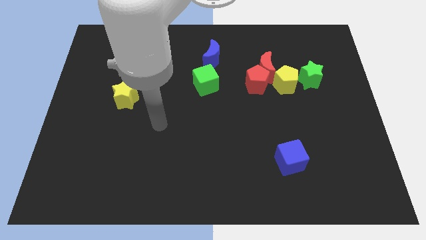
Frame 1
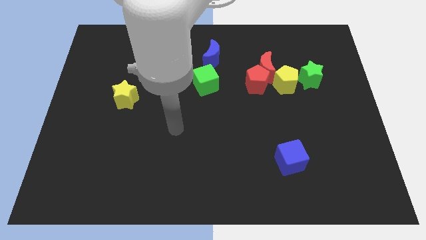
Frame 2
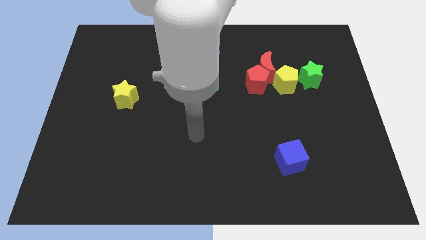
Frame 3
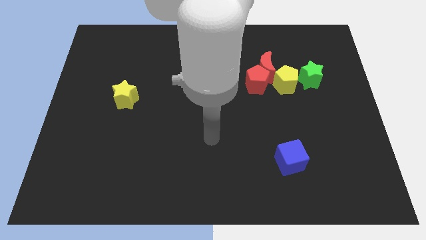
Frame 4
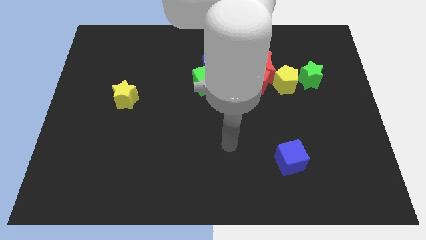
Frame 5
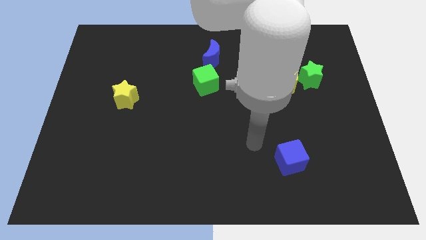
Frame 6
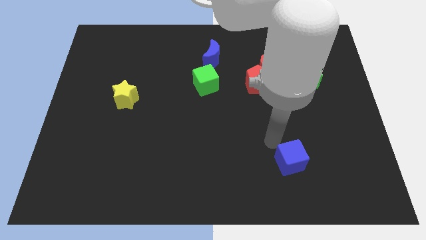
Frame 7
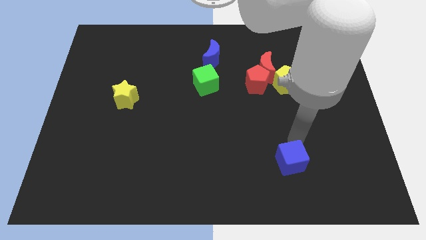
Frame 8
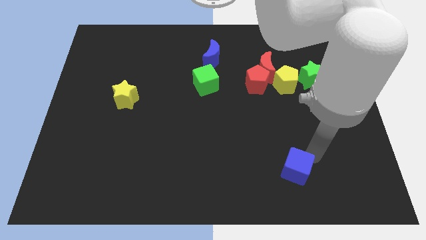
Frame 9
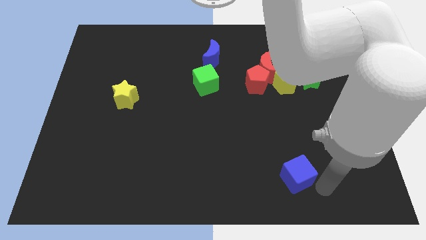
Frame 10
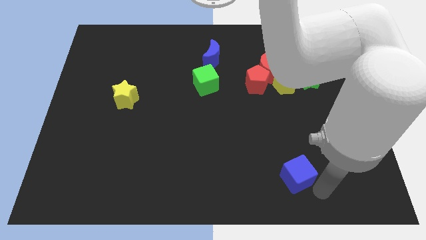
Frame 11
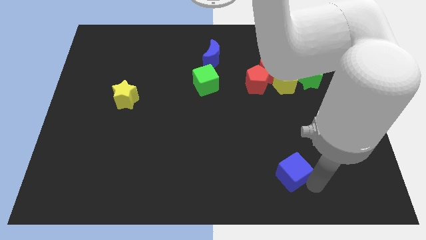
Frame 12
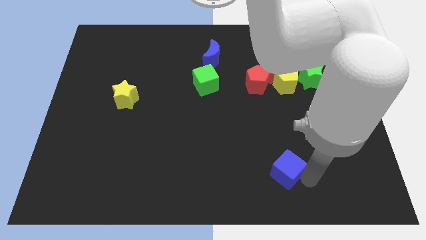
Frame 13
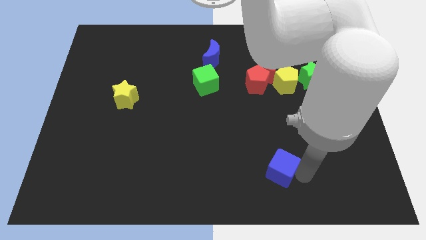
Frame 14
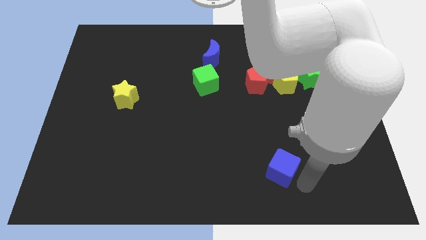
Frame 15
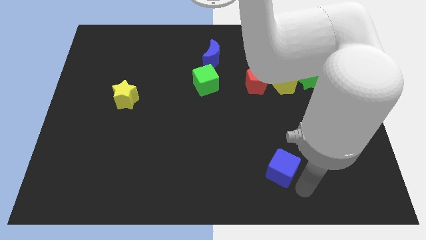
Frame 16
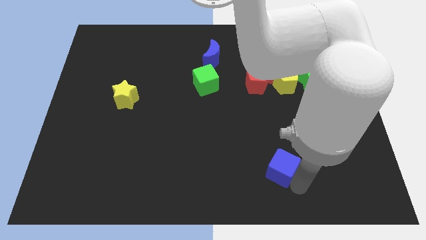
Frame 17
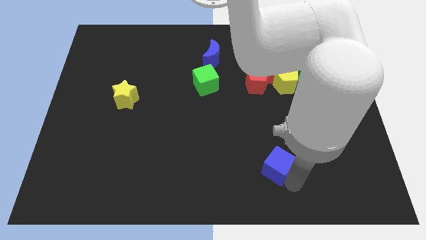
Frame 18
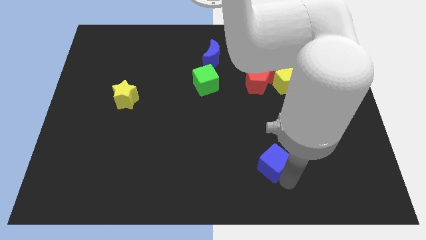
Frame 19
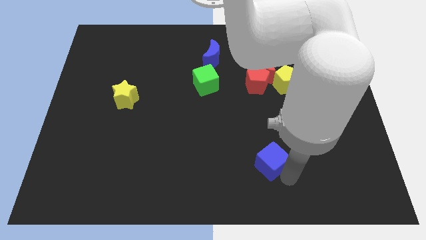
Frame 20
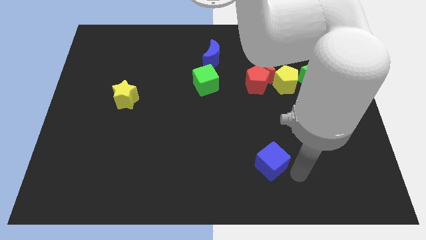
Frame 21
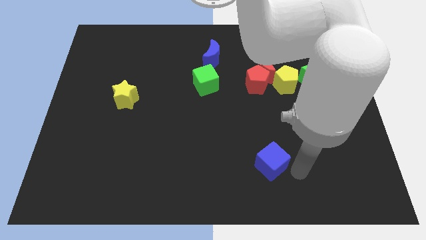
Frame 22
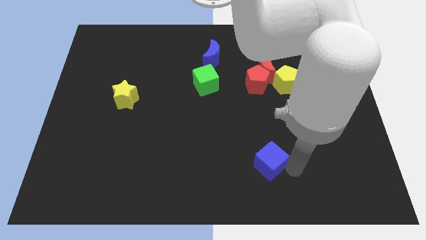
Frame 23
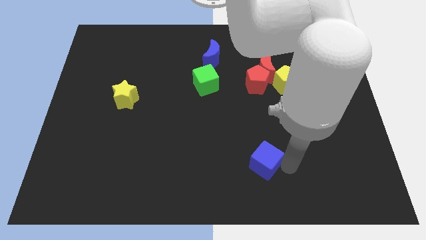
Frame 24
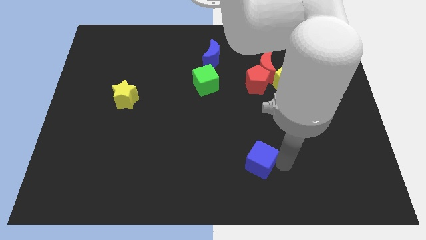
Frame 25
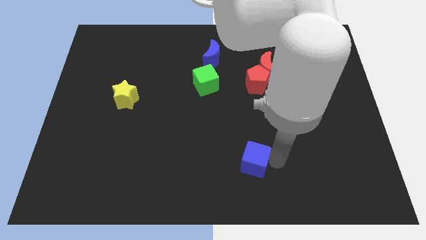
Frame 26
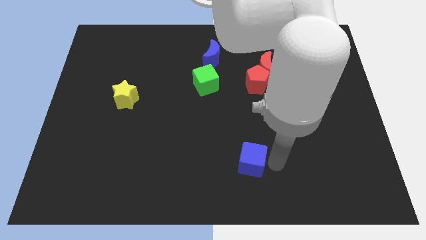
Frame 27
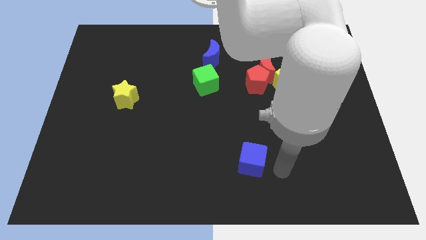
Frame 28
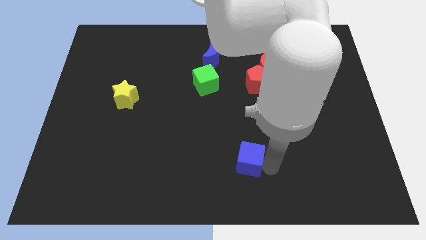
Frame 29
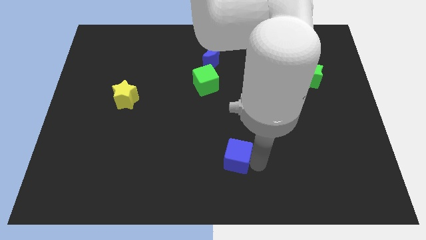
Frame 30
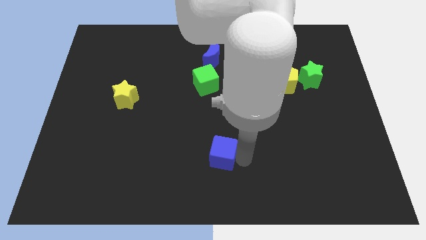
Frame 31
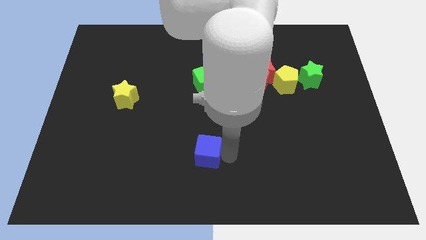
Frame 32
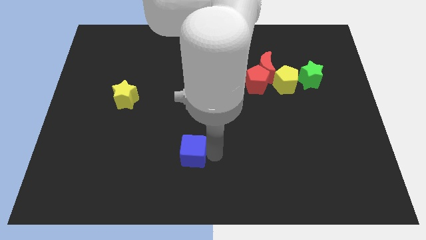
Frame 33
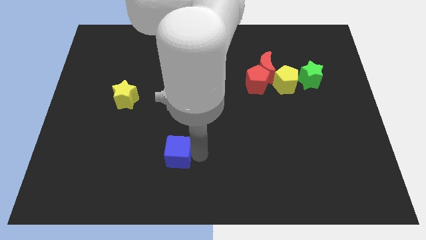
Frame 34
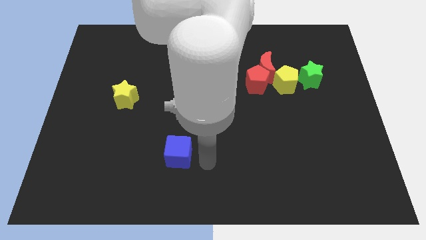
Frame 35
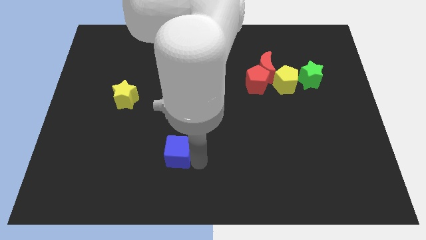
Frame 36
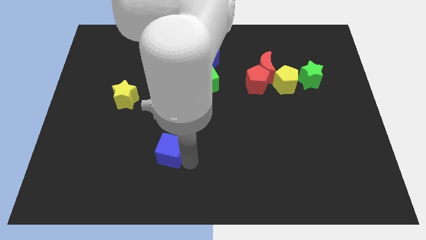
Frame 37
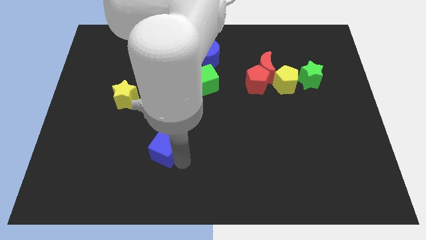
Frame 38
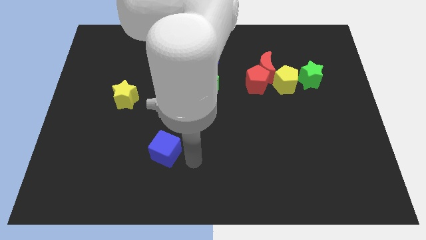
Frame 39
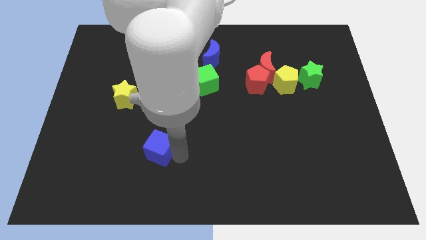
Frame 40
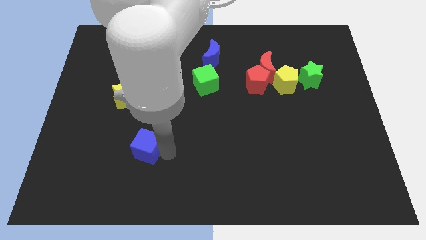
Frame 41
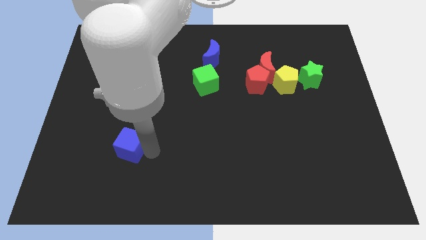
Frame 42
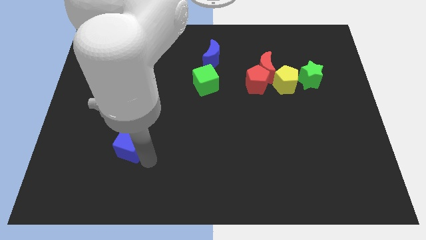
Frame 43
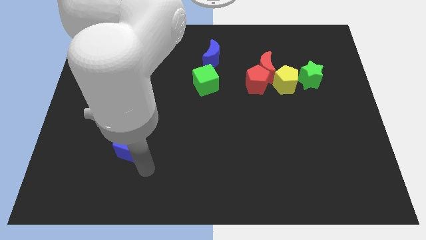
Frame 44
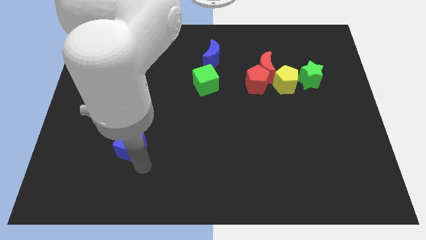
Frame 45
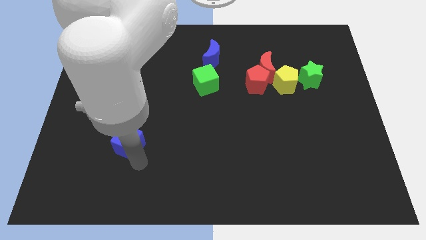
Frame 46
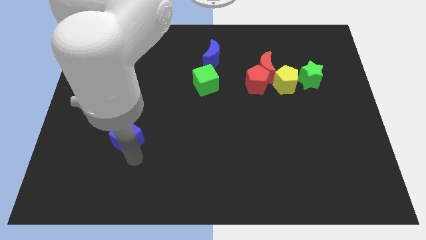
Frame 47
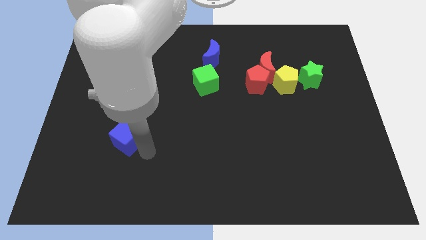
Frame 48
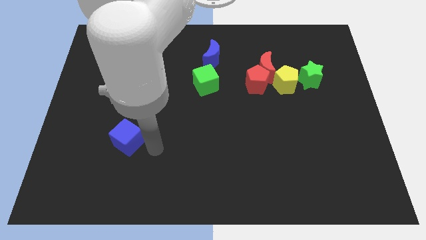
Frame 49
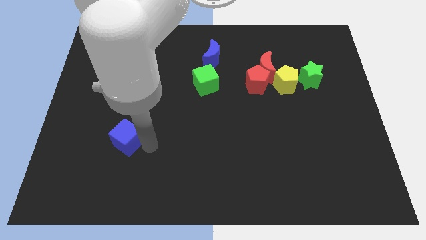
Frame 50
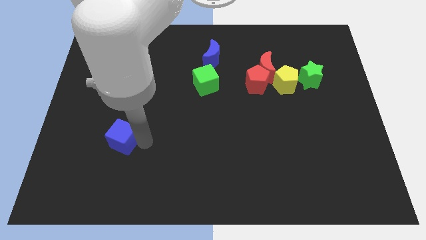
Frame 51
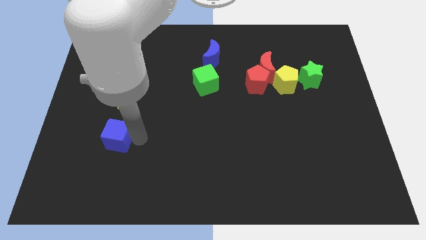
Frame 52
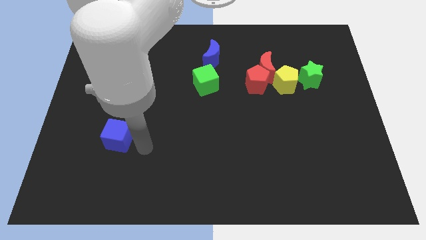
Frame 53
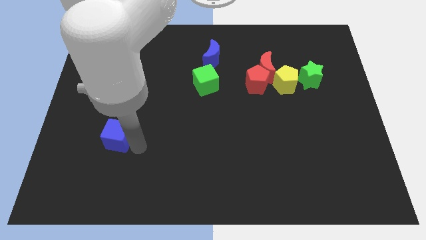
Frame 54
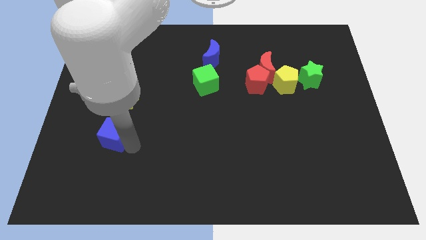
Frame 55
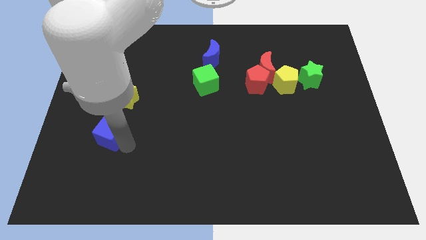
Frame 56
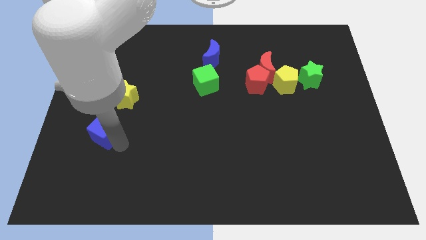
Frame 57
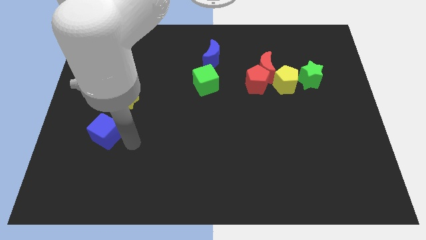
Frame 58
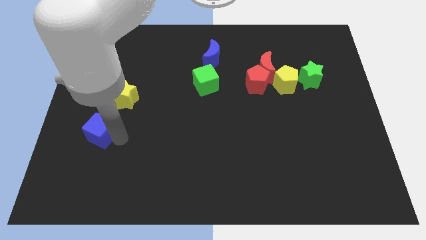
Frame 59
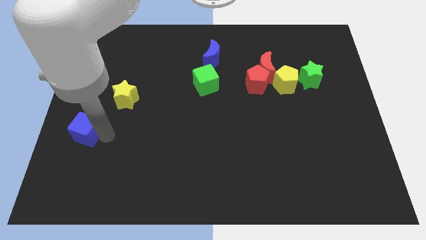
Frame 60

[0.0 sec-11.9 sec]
move the blue cube to the center left
